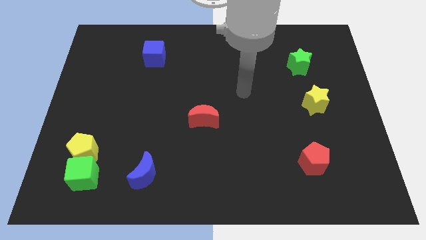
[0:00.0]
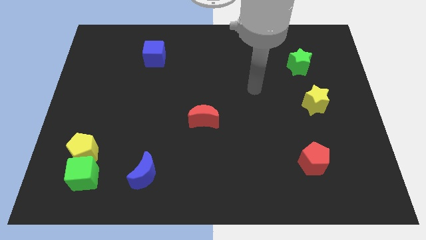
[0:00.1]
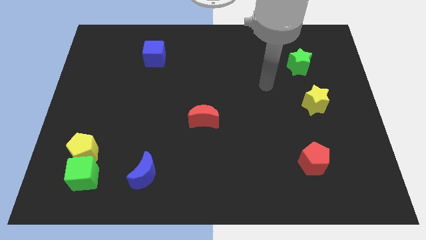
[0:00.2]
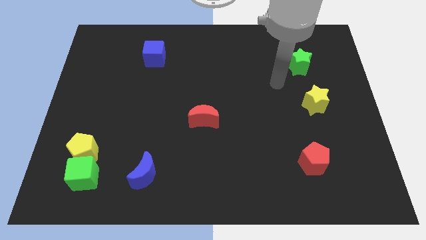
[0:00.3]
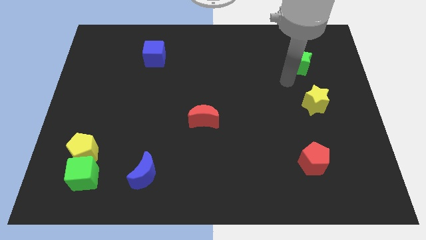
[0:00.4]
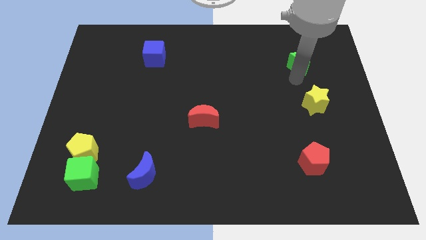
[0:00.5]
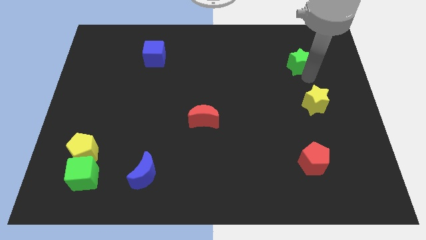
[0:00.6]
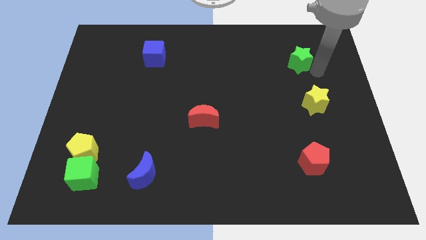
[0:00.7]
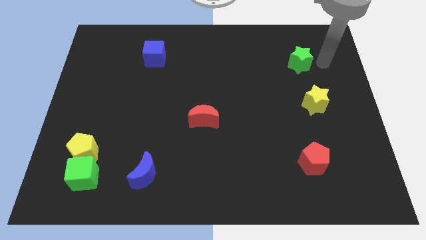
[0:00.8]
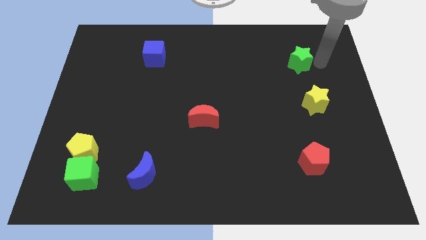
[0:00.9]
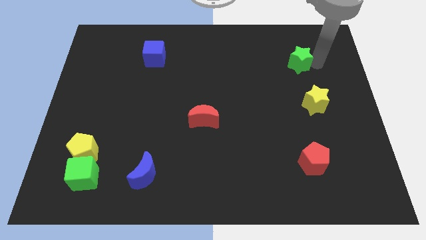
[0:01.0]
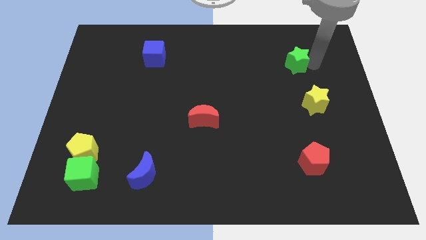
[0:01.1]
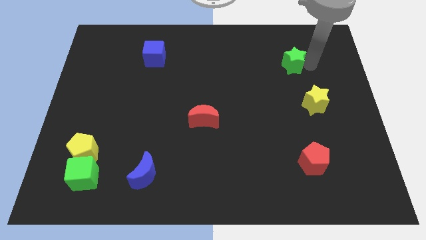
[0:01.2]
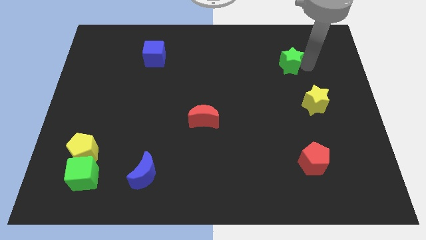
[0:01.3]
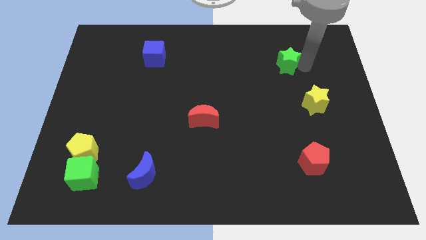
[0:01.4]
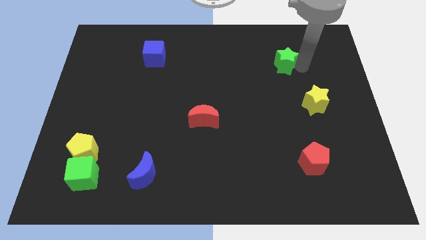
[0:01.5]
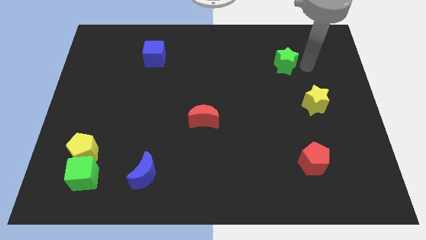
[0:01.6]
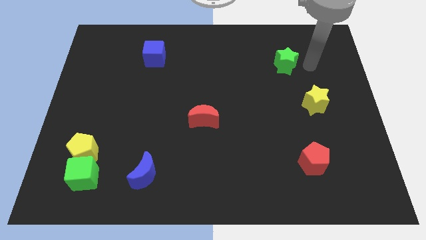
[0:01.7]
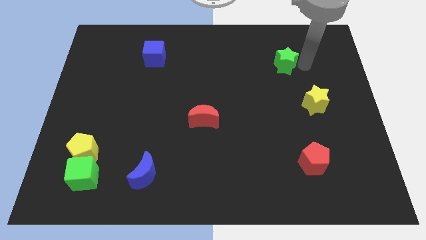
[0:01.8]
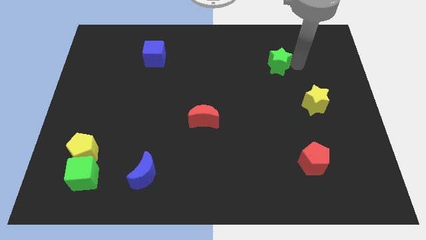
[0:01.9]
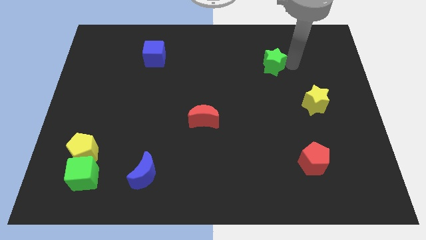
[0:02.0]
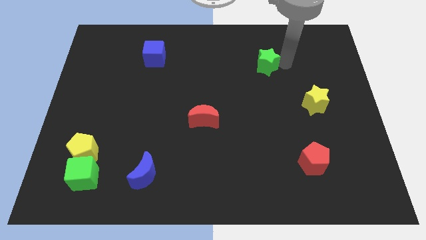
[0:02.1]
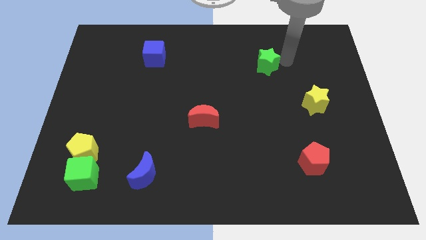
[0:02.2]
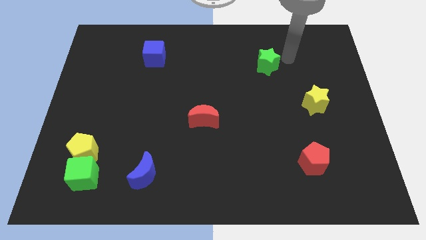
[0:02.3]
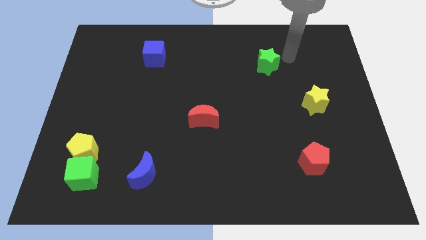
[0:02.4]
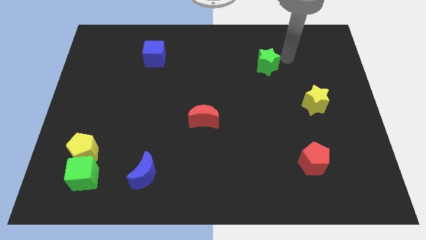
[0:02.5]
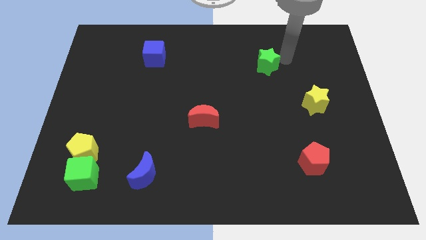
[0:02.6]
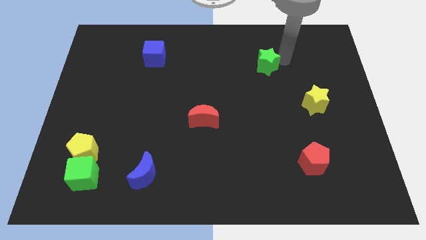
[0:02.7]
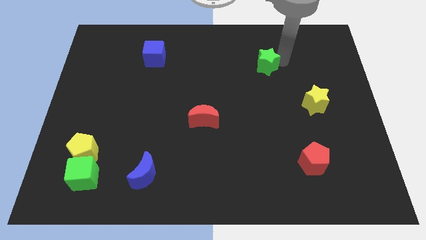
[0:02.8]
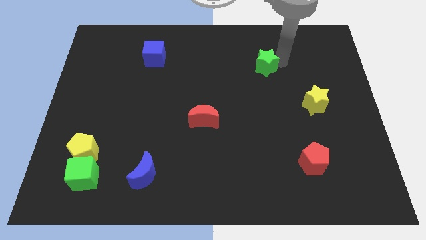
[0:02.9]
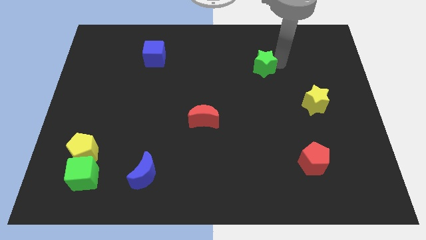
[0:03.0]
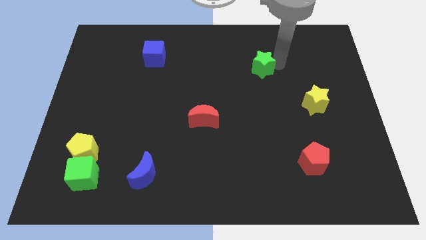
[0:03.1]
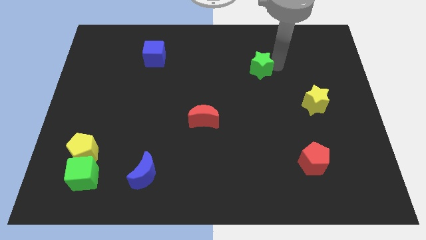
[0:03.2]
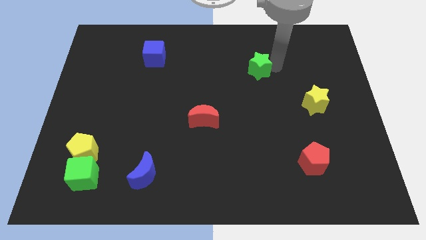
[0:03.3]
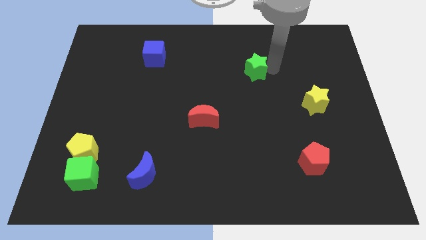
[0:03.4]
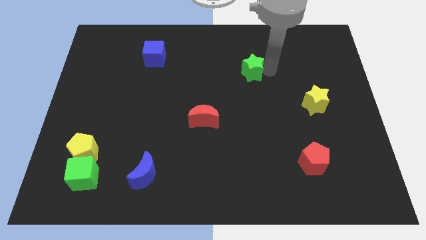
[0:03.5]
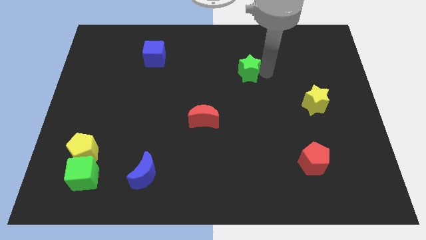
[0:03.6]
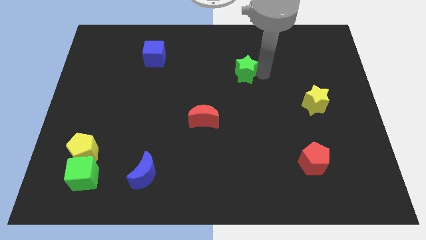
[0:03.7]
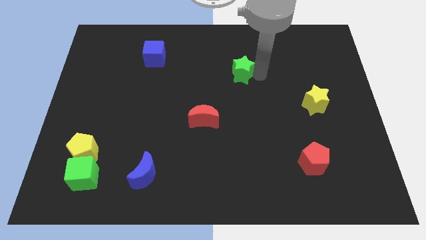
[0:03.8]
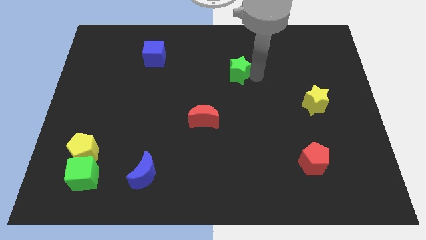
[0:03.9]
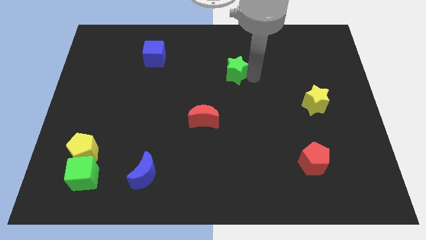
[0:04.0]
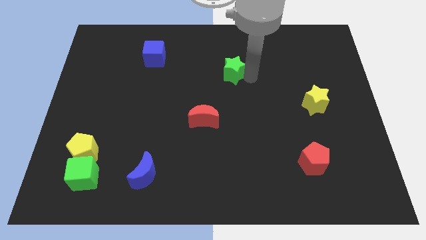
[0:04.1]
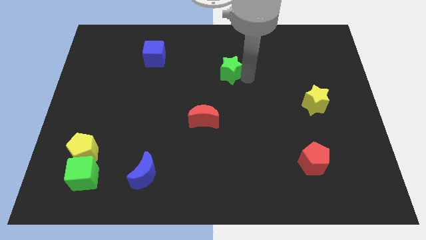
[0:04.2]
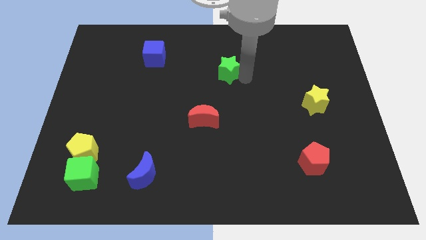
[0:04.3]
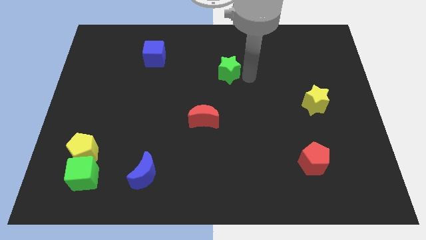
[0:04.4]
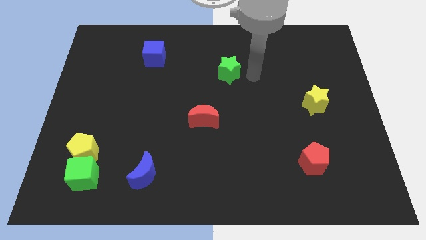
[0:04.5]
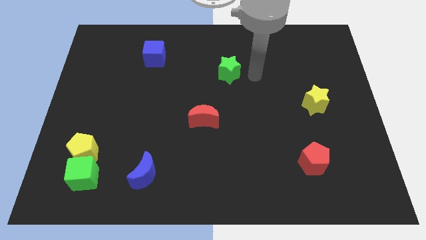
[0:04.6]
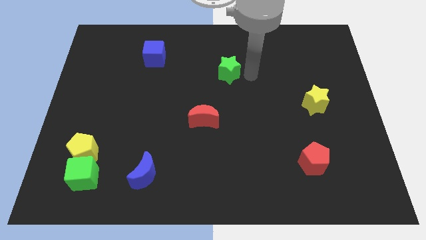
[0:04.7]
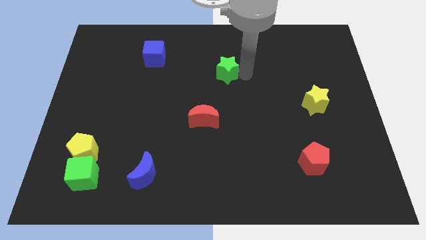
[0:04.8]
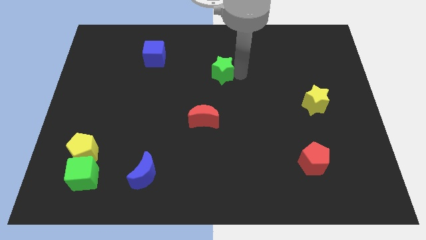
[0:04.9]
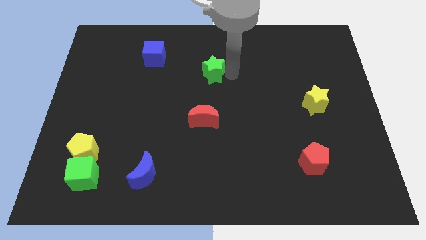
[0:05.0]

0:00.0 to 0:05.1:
push the green star left

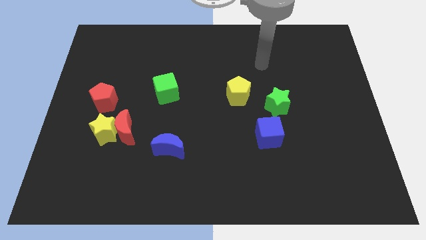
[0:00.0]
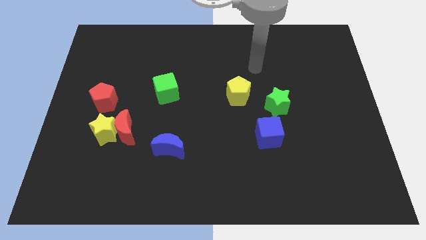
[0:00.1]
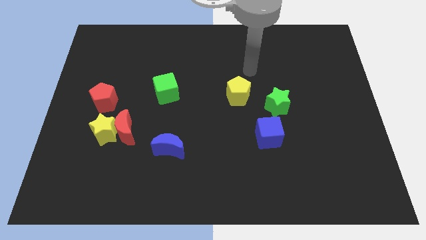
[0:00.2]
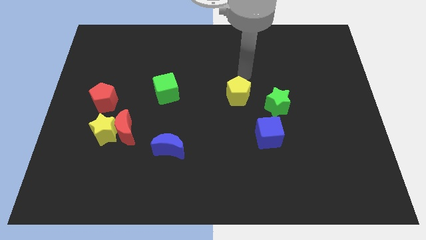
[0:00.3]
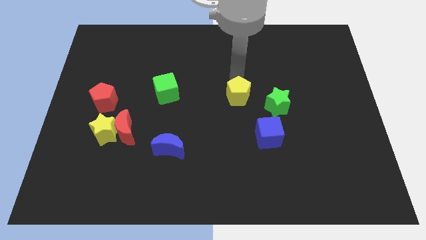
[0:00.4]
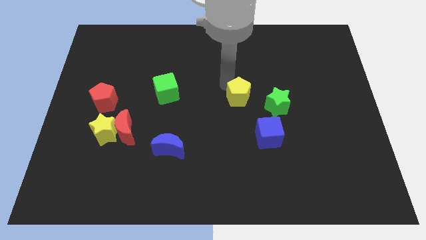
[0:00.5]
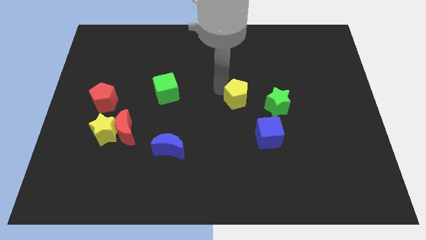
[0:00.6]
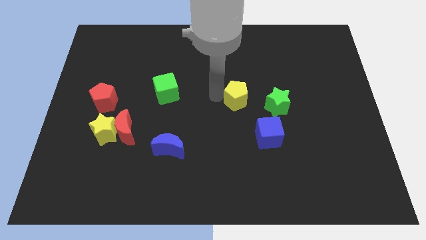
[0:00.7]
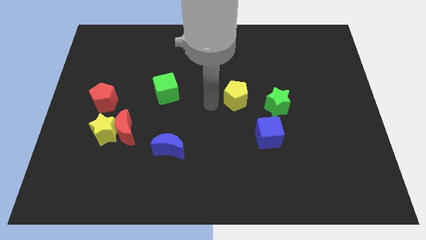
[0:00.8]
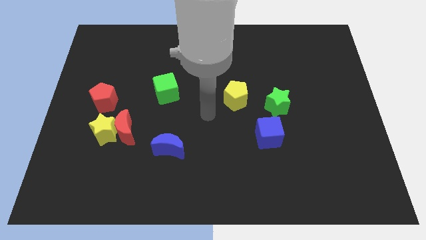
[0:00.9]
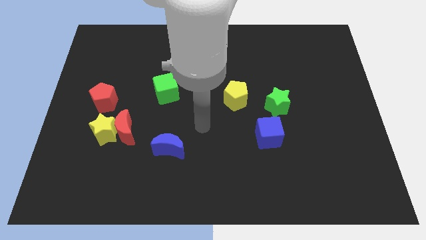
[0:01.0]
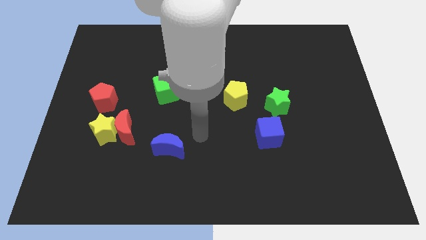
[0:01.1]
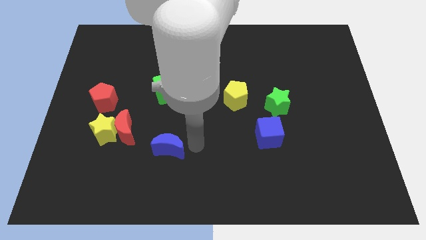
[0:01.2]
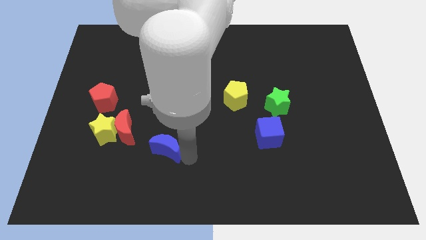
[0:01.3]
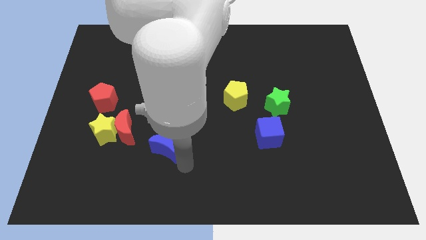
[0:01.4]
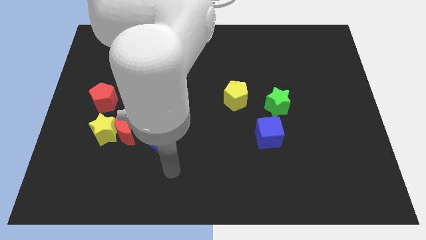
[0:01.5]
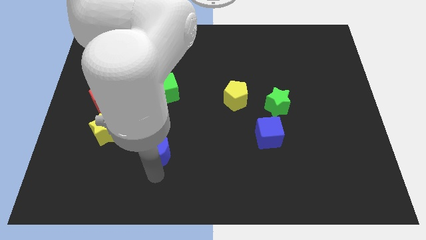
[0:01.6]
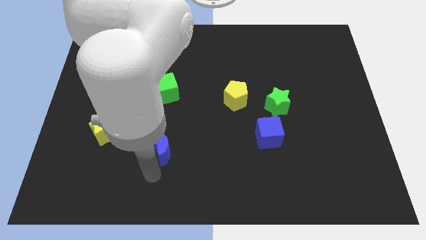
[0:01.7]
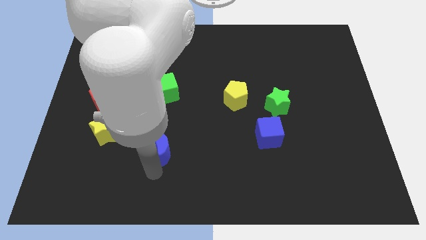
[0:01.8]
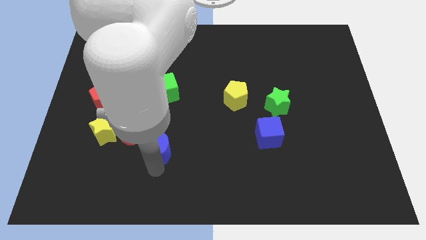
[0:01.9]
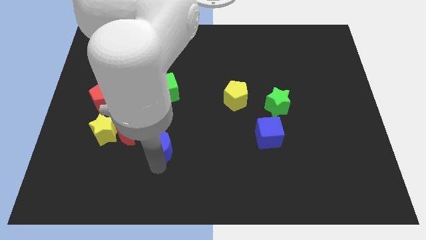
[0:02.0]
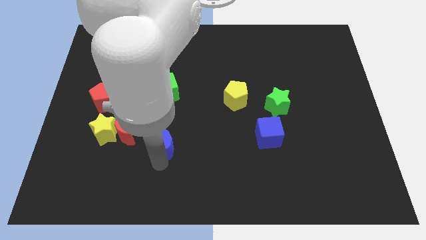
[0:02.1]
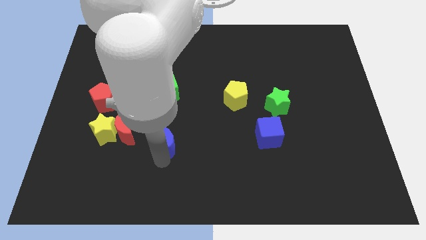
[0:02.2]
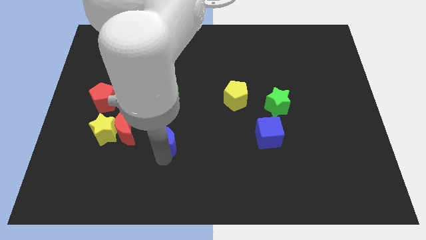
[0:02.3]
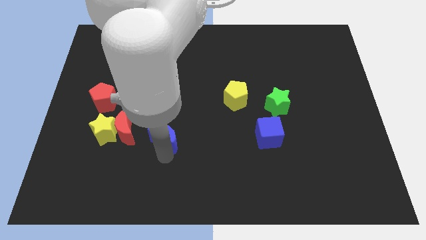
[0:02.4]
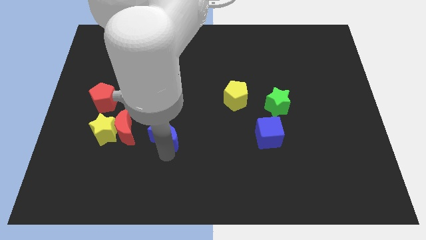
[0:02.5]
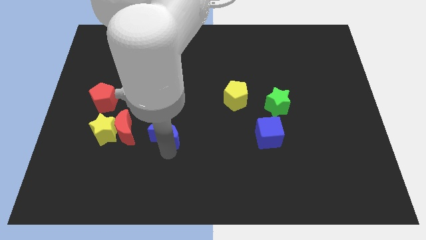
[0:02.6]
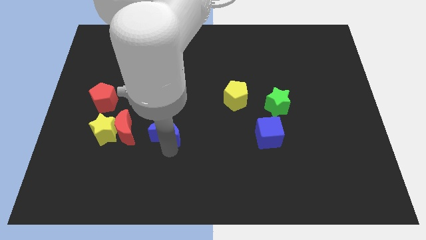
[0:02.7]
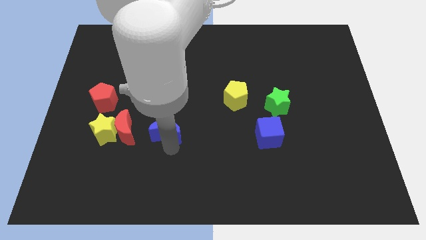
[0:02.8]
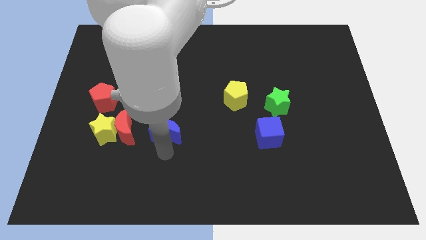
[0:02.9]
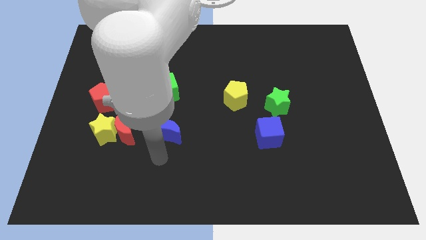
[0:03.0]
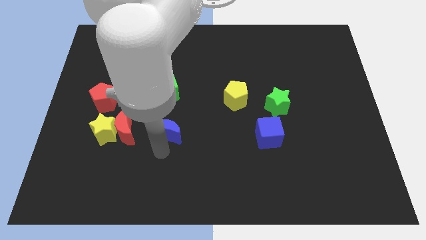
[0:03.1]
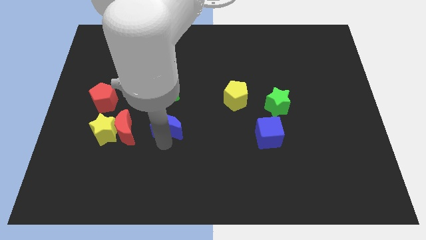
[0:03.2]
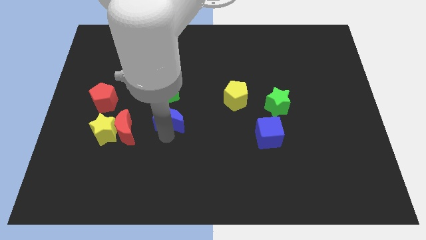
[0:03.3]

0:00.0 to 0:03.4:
move the blue moon a little bit upwards
